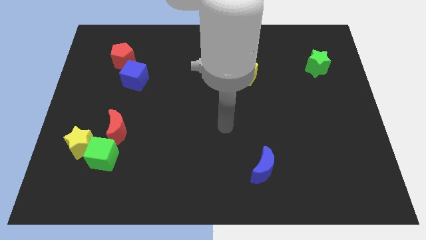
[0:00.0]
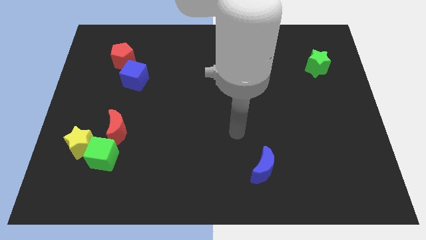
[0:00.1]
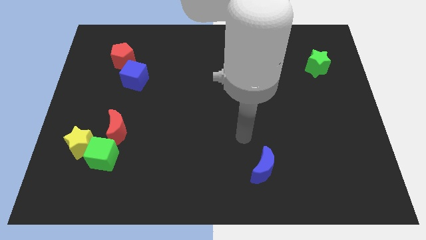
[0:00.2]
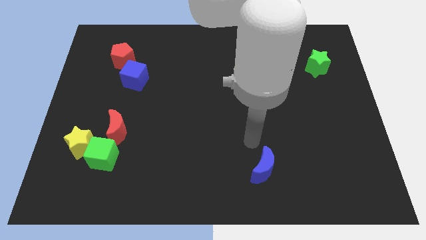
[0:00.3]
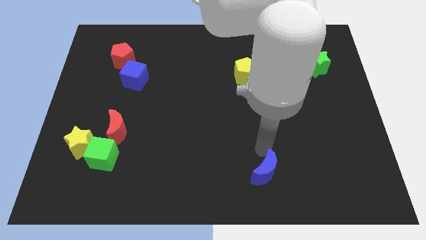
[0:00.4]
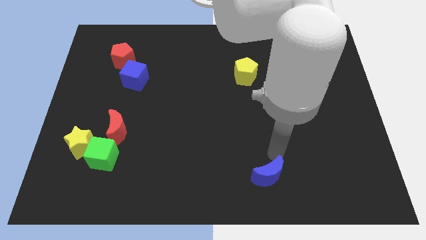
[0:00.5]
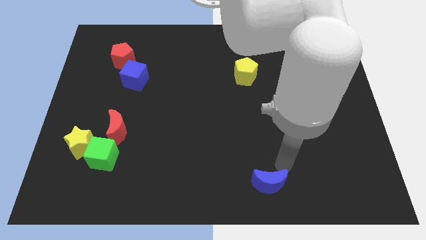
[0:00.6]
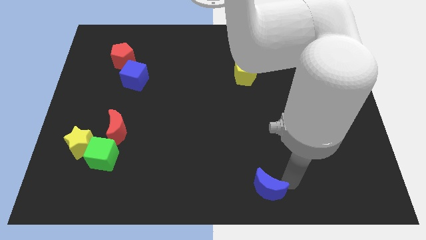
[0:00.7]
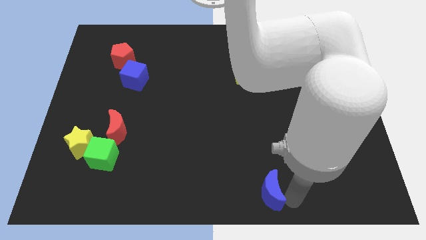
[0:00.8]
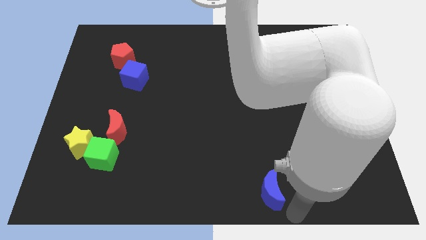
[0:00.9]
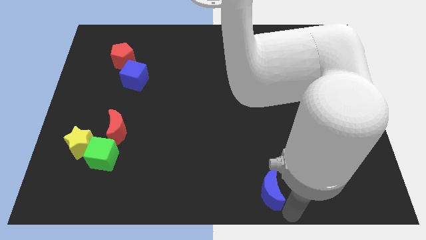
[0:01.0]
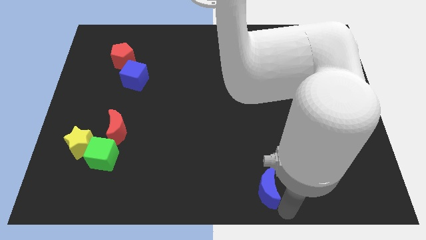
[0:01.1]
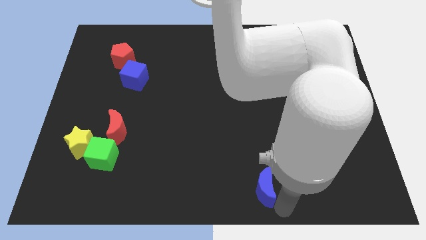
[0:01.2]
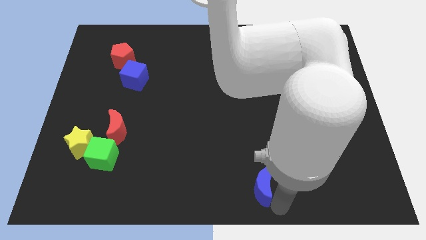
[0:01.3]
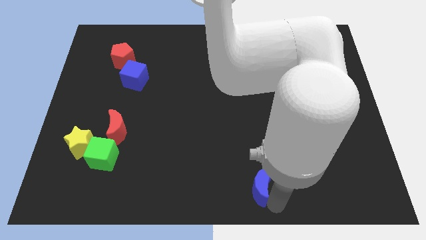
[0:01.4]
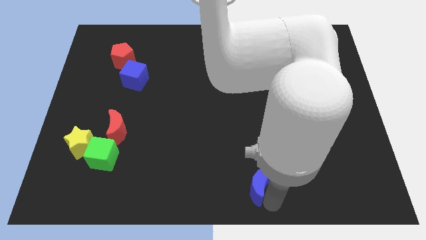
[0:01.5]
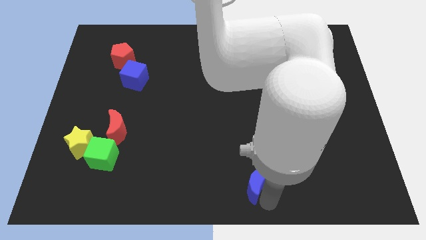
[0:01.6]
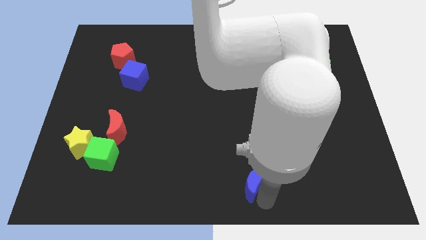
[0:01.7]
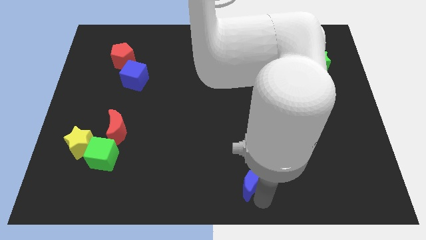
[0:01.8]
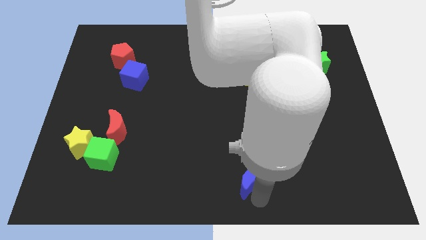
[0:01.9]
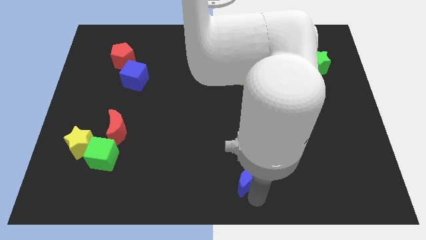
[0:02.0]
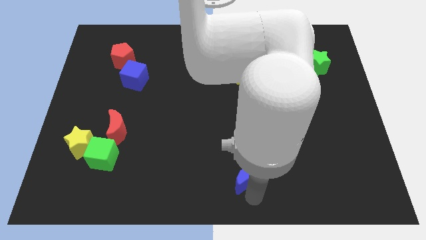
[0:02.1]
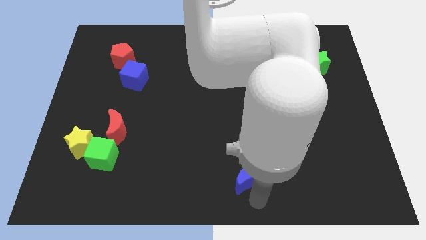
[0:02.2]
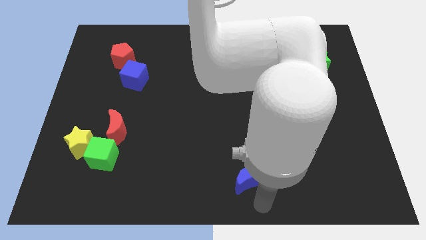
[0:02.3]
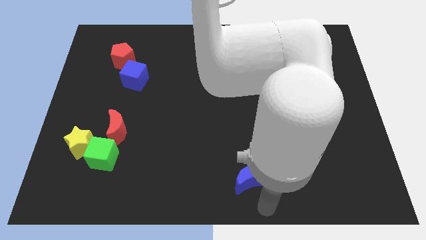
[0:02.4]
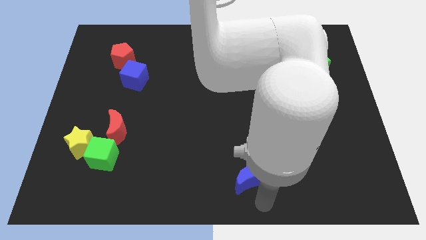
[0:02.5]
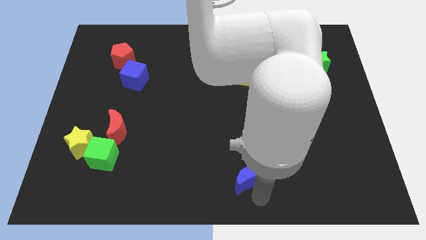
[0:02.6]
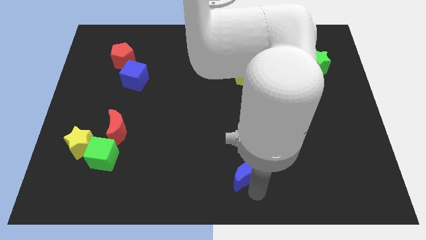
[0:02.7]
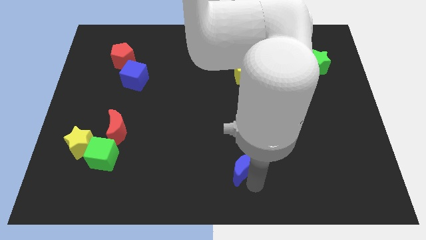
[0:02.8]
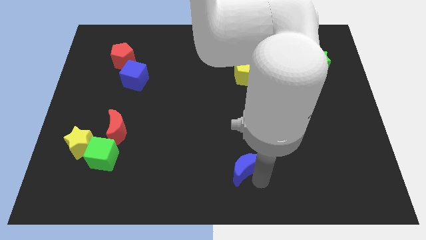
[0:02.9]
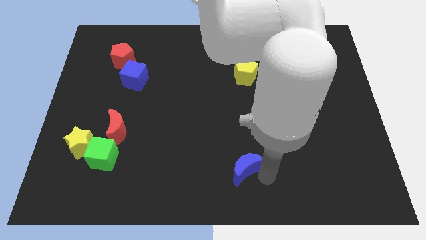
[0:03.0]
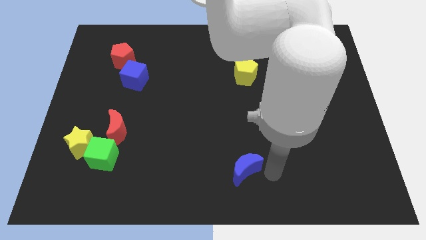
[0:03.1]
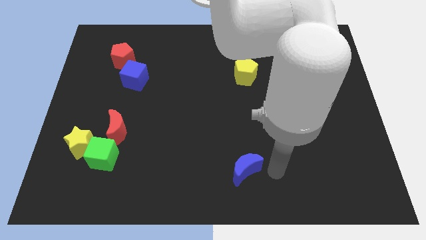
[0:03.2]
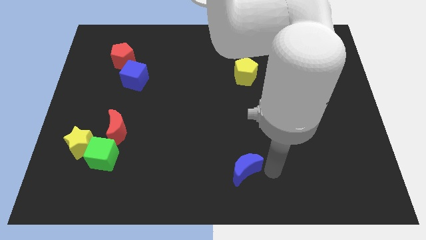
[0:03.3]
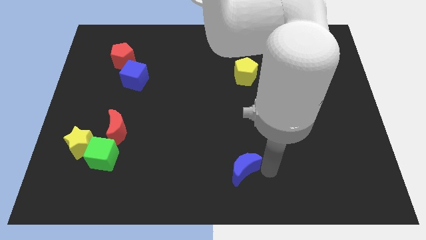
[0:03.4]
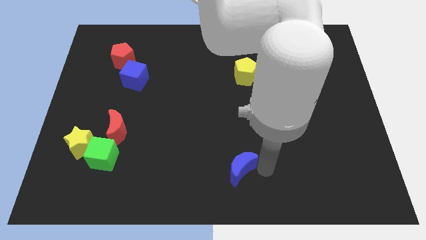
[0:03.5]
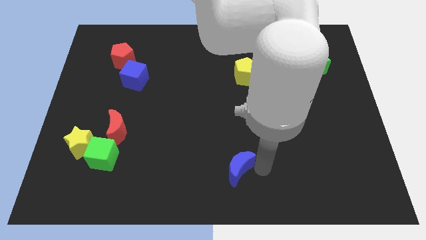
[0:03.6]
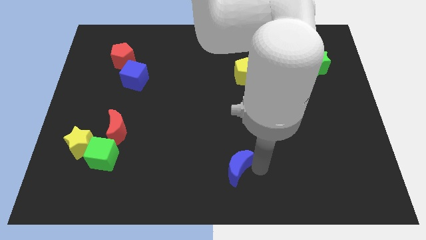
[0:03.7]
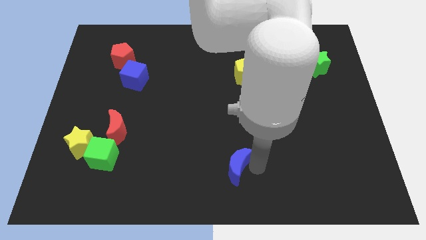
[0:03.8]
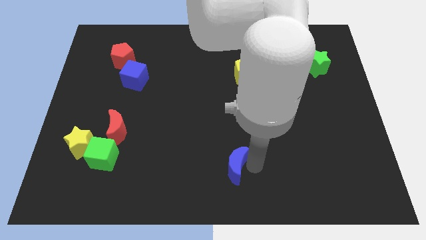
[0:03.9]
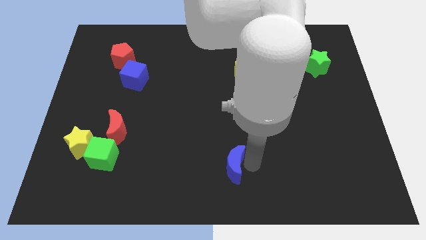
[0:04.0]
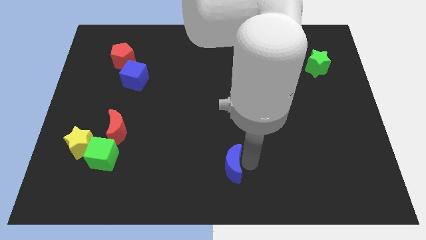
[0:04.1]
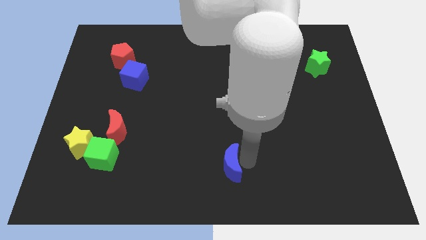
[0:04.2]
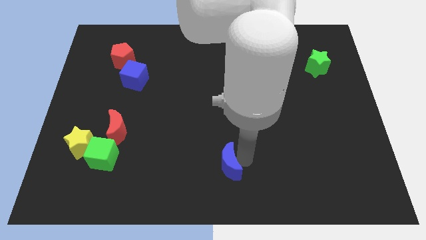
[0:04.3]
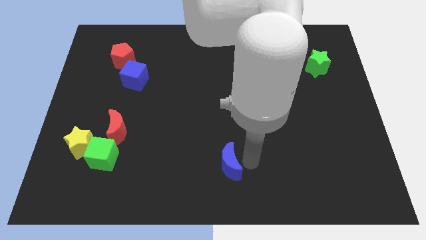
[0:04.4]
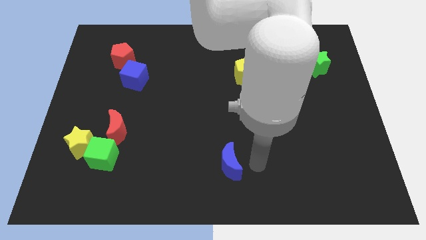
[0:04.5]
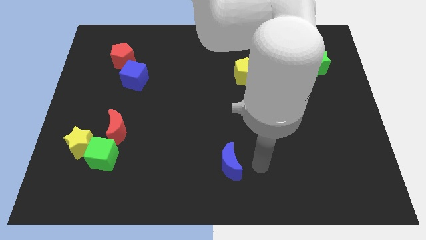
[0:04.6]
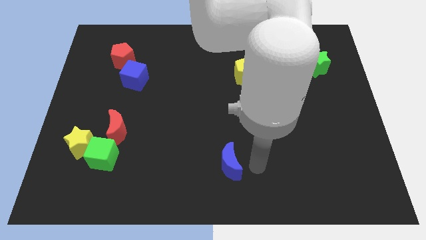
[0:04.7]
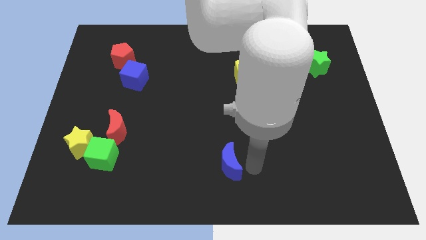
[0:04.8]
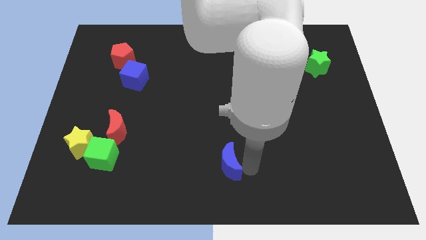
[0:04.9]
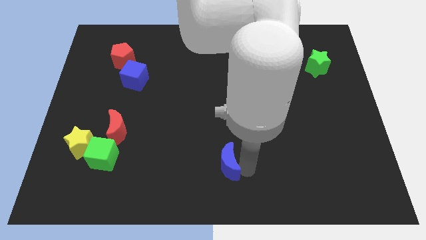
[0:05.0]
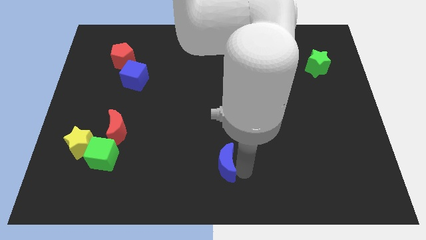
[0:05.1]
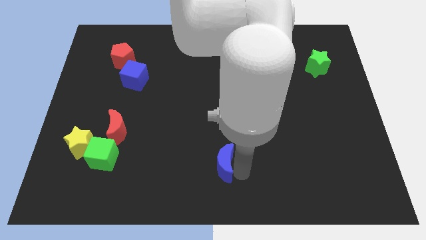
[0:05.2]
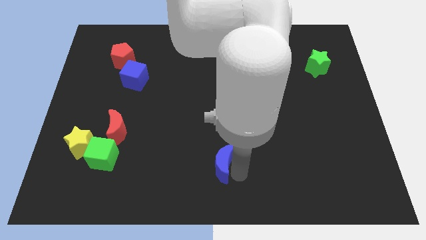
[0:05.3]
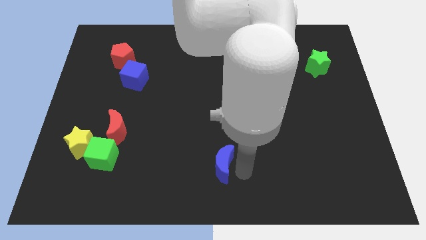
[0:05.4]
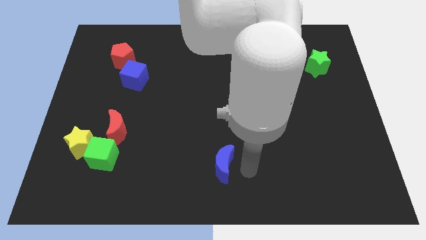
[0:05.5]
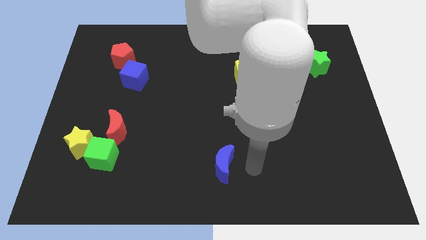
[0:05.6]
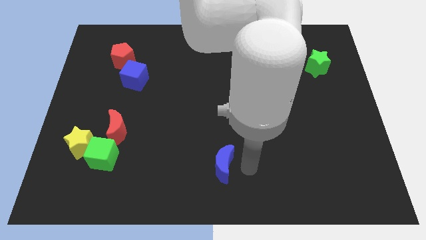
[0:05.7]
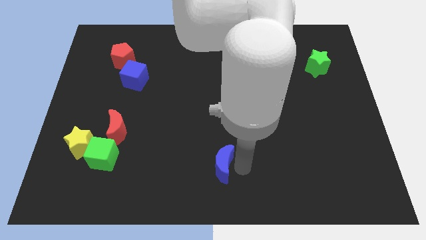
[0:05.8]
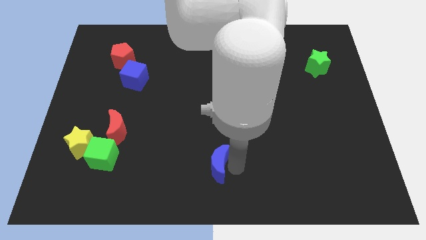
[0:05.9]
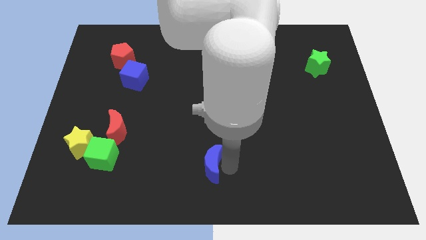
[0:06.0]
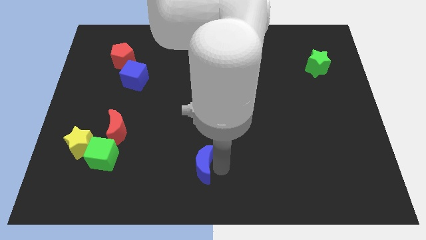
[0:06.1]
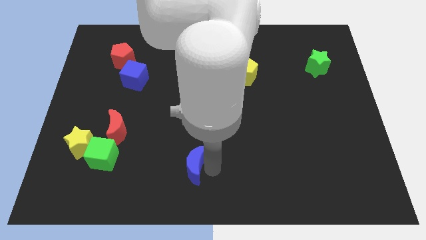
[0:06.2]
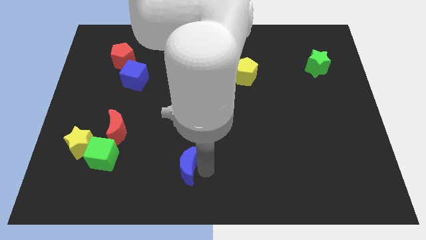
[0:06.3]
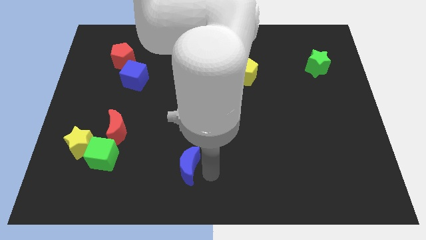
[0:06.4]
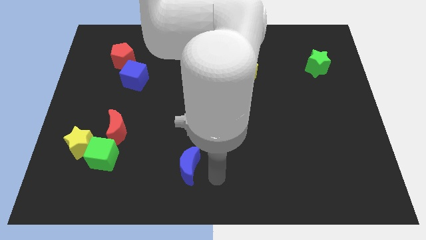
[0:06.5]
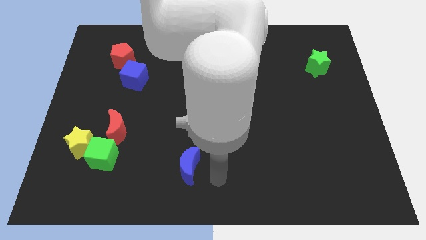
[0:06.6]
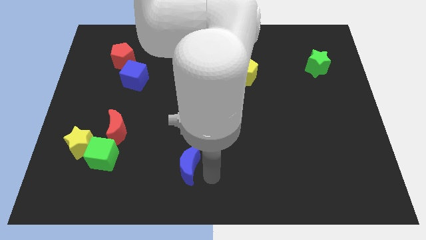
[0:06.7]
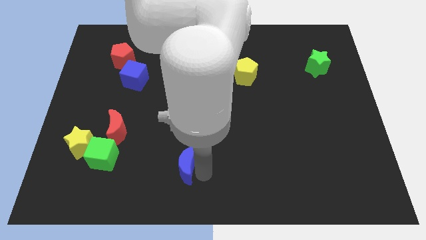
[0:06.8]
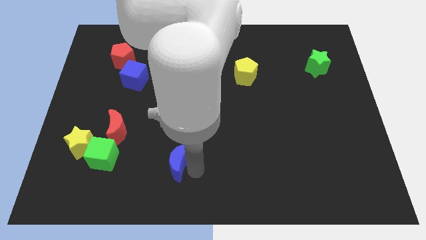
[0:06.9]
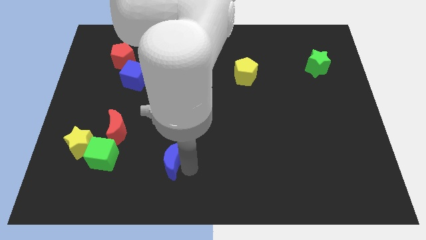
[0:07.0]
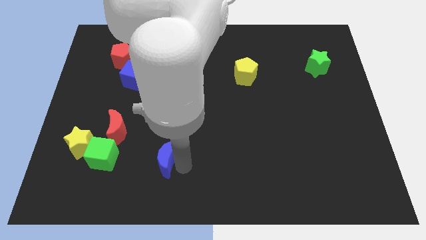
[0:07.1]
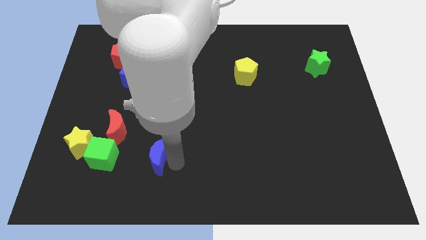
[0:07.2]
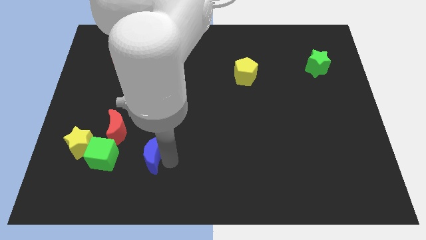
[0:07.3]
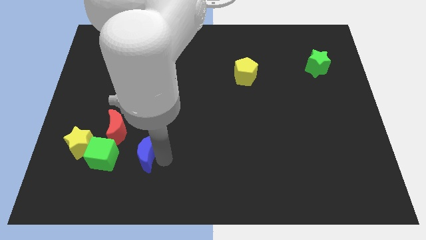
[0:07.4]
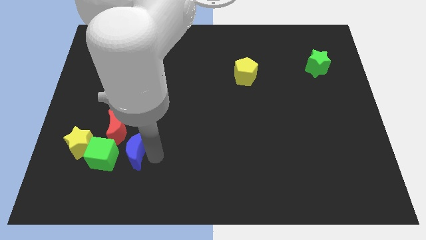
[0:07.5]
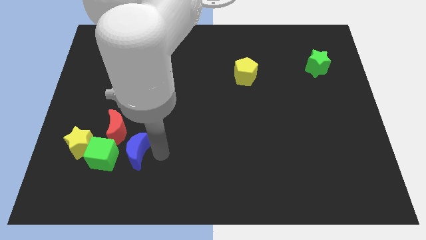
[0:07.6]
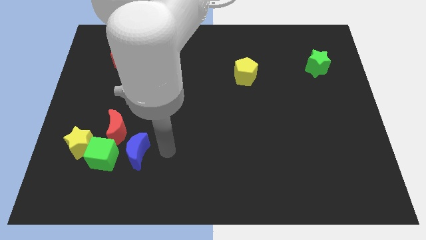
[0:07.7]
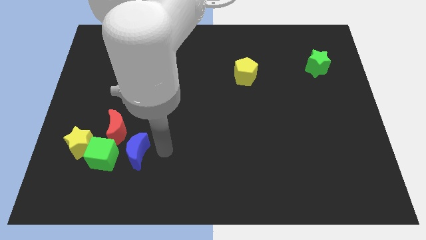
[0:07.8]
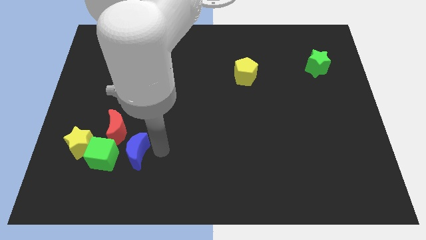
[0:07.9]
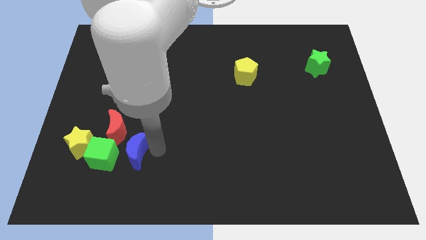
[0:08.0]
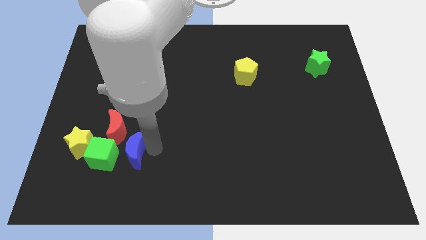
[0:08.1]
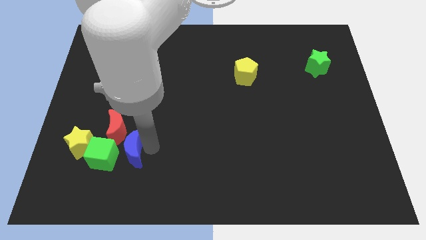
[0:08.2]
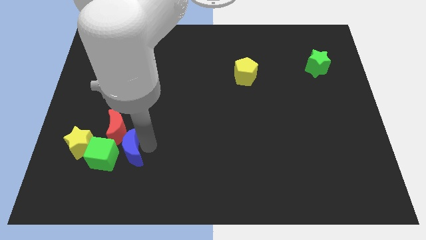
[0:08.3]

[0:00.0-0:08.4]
put the blue moon towards the green cube
